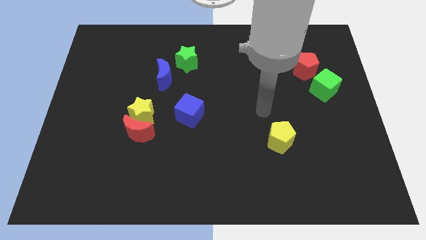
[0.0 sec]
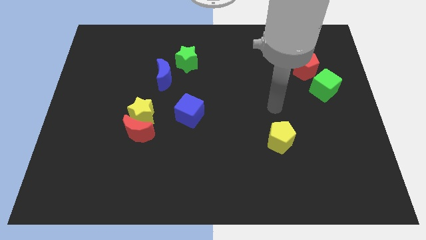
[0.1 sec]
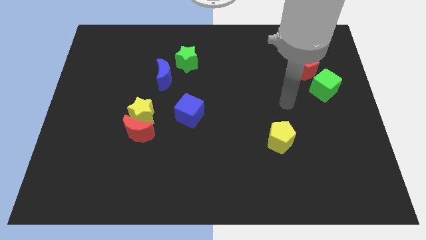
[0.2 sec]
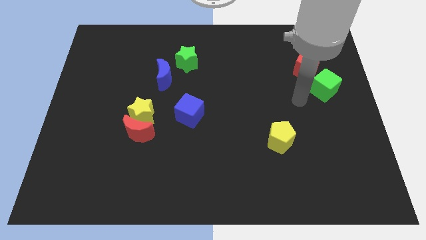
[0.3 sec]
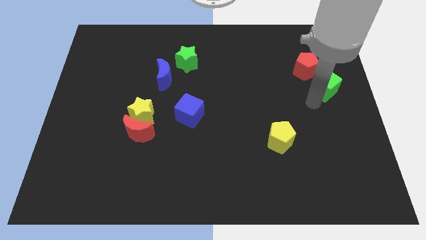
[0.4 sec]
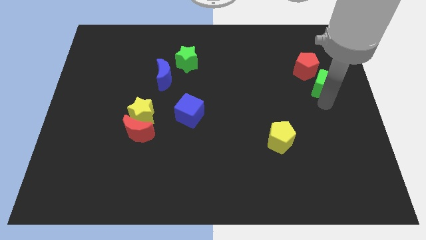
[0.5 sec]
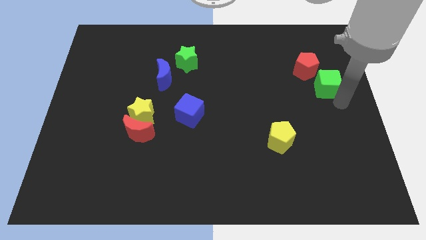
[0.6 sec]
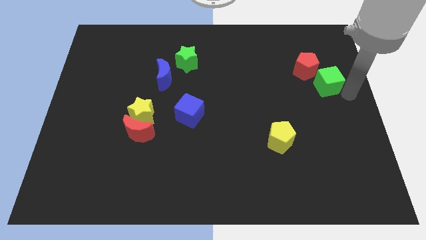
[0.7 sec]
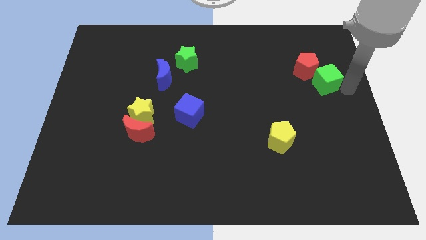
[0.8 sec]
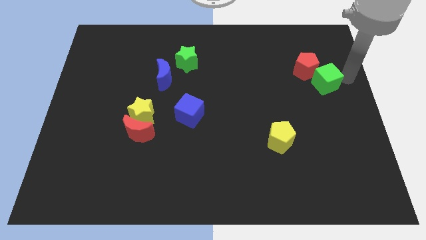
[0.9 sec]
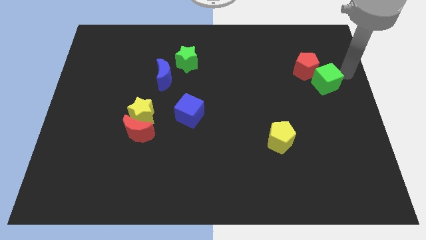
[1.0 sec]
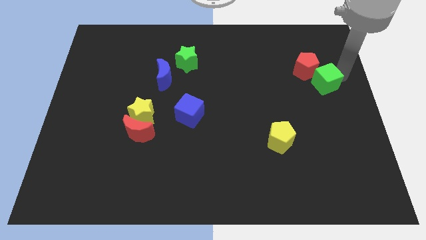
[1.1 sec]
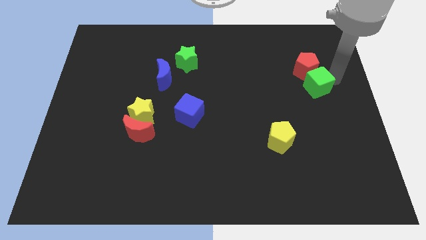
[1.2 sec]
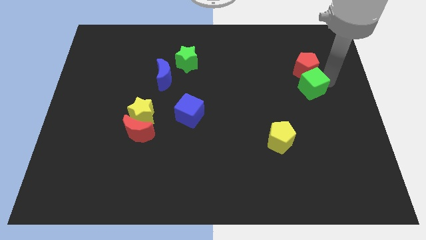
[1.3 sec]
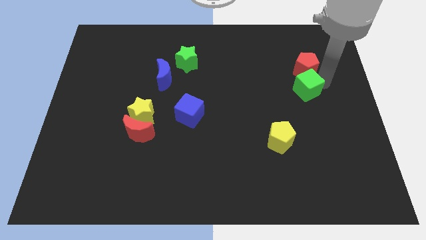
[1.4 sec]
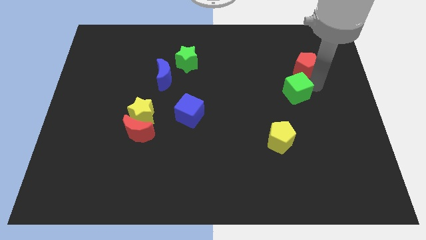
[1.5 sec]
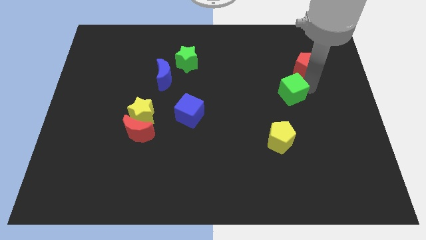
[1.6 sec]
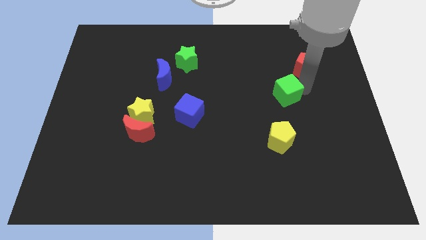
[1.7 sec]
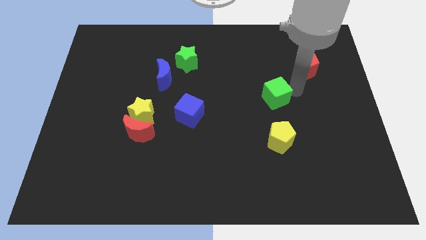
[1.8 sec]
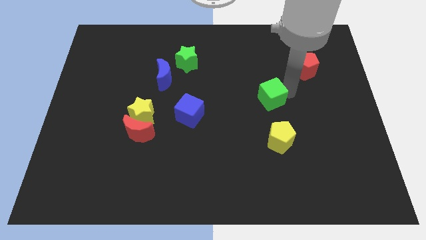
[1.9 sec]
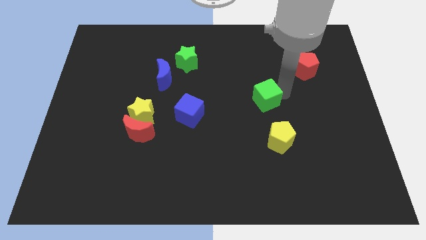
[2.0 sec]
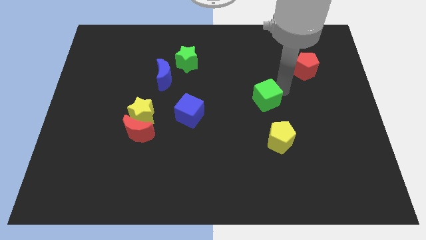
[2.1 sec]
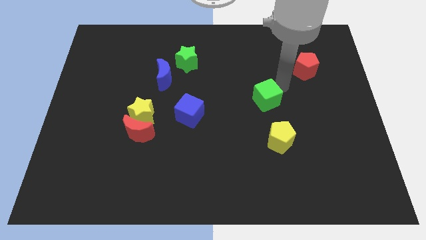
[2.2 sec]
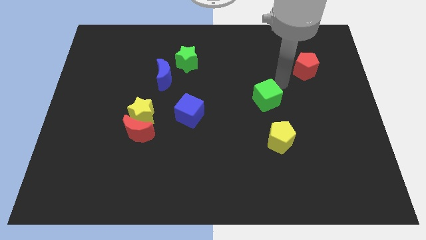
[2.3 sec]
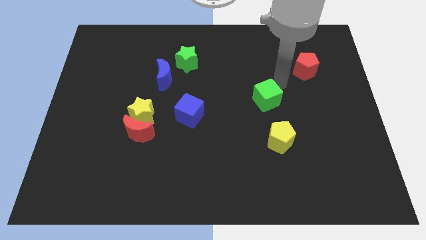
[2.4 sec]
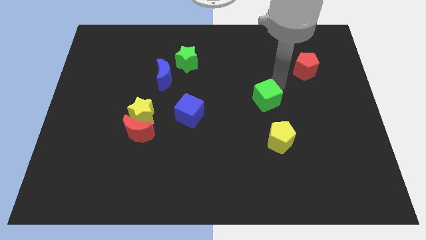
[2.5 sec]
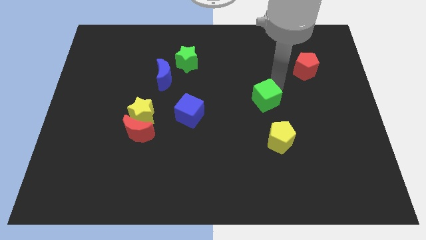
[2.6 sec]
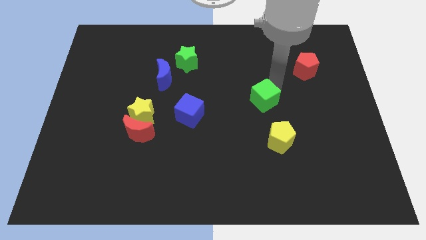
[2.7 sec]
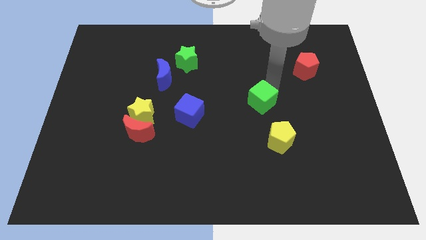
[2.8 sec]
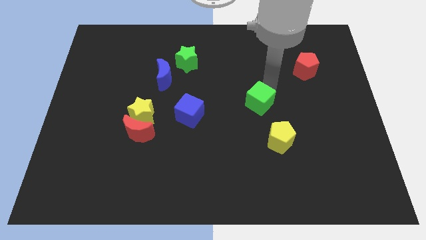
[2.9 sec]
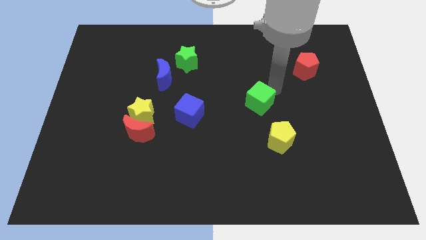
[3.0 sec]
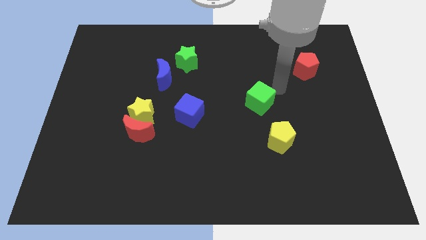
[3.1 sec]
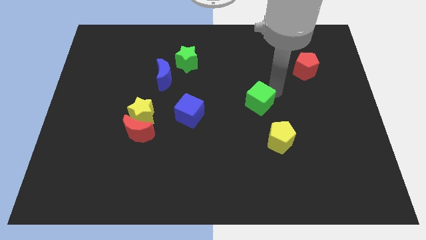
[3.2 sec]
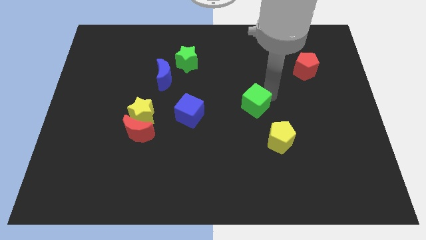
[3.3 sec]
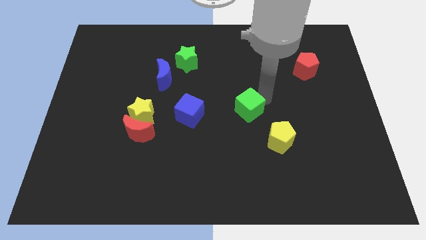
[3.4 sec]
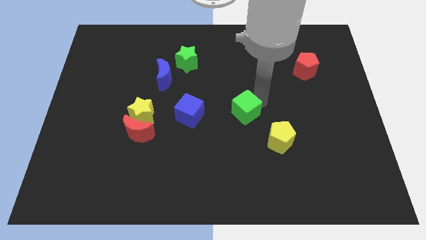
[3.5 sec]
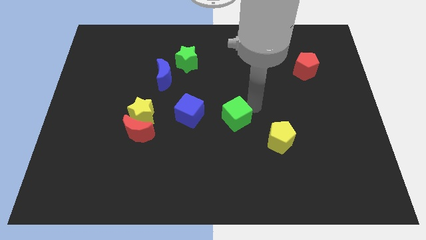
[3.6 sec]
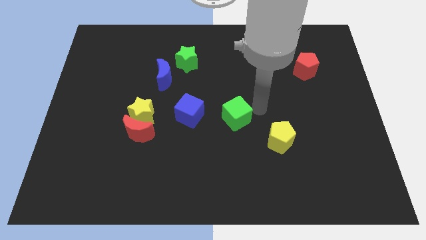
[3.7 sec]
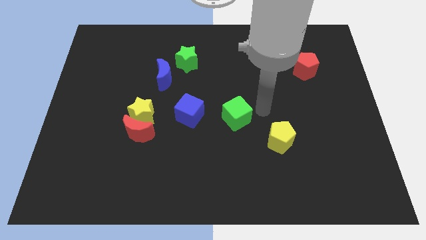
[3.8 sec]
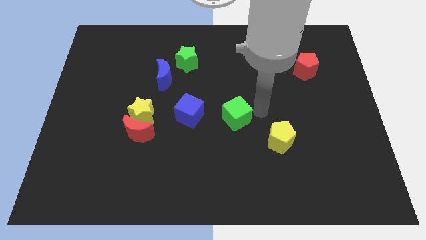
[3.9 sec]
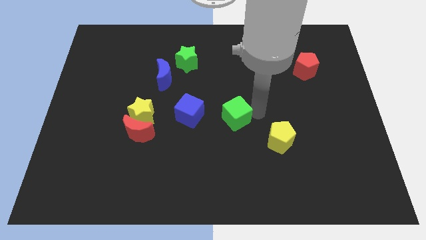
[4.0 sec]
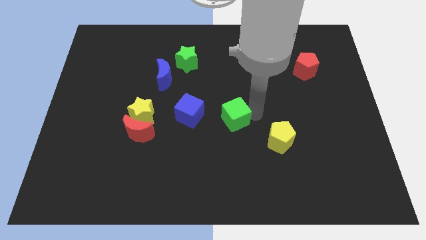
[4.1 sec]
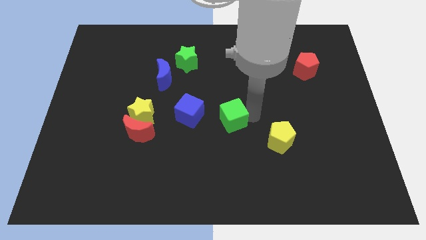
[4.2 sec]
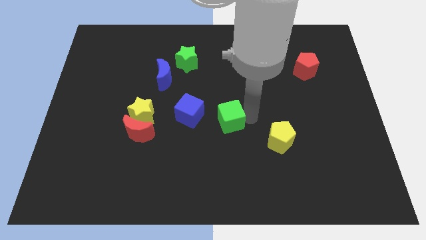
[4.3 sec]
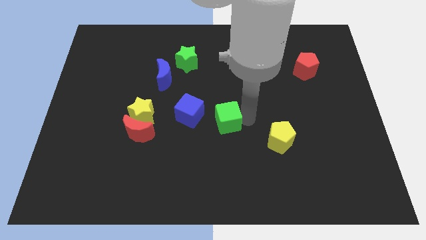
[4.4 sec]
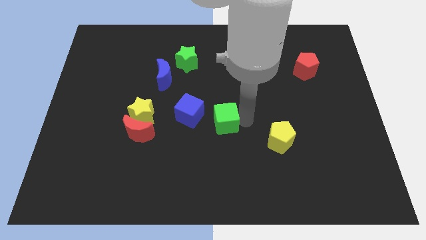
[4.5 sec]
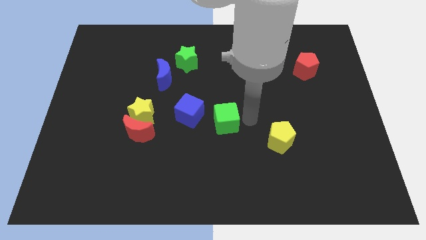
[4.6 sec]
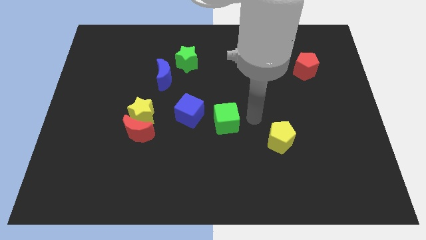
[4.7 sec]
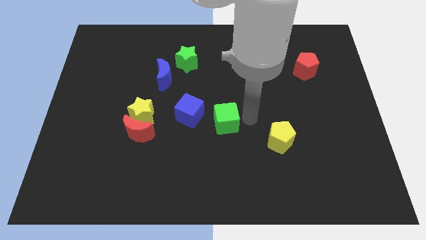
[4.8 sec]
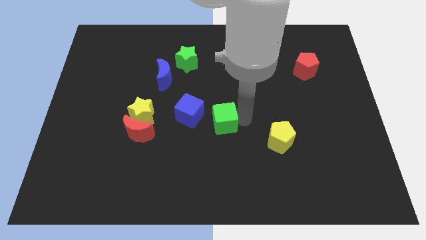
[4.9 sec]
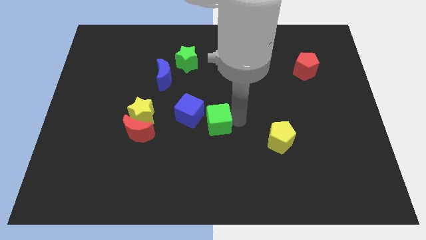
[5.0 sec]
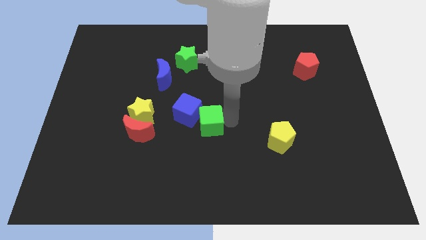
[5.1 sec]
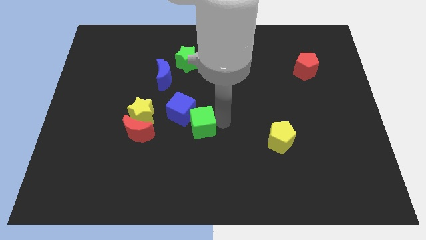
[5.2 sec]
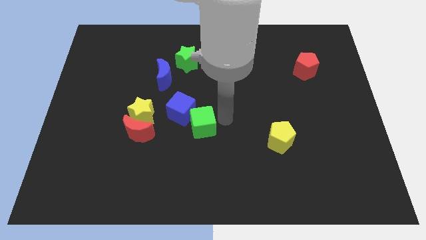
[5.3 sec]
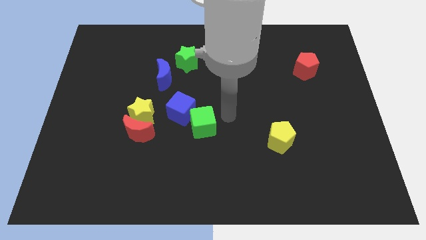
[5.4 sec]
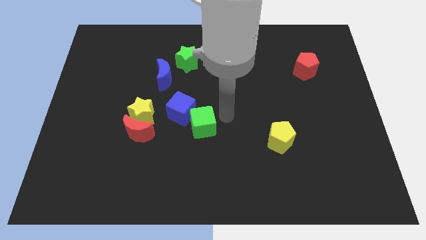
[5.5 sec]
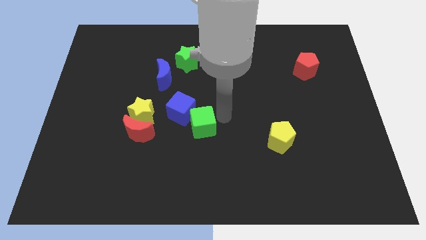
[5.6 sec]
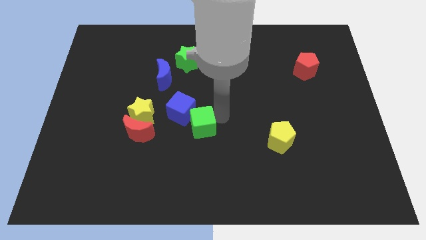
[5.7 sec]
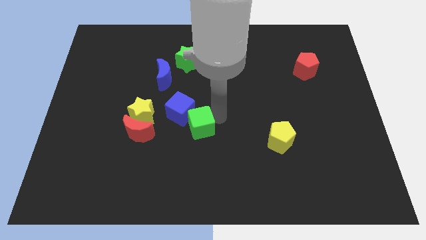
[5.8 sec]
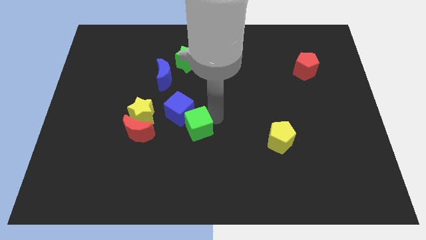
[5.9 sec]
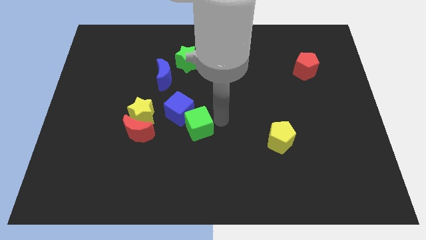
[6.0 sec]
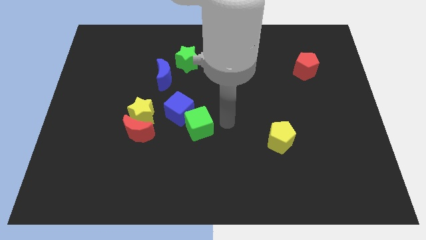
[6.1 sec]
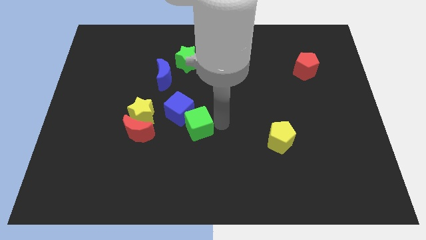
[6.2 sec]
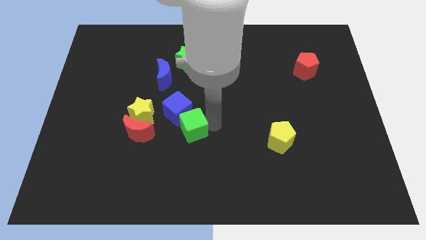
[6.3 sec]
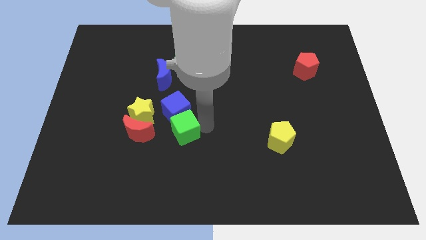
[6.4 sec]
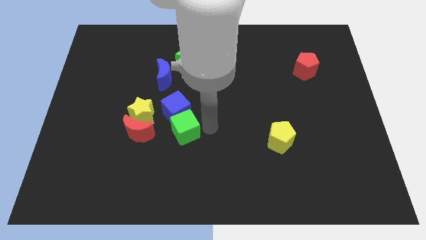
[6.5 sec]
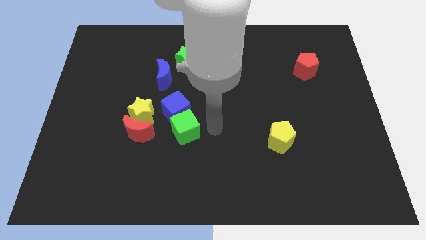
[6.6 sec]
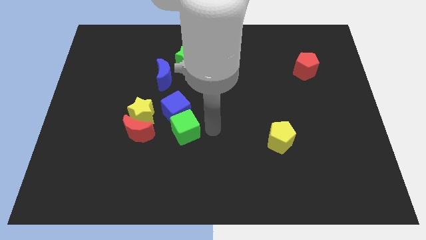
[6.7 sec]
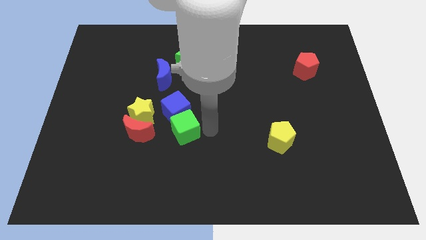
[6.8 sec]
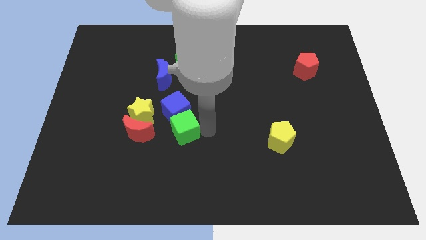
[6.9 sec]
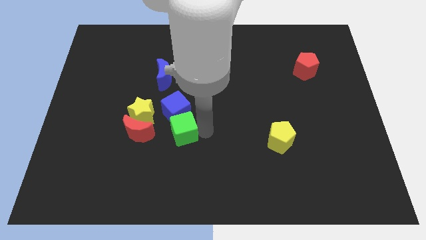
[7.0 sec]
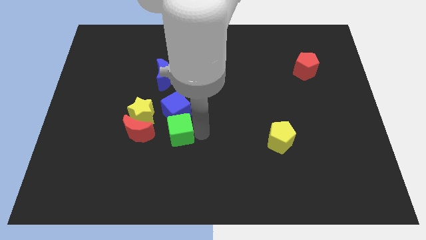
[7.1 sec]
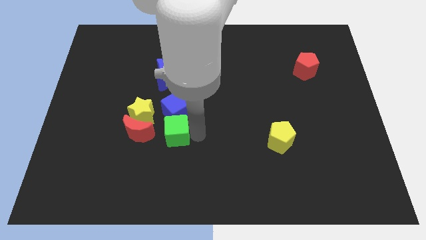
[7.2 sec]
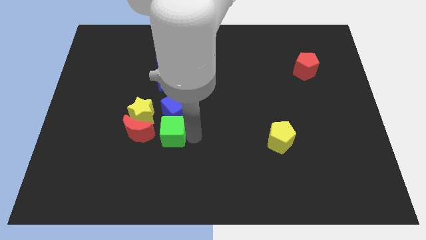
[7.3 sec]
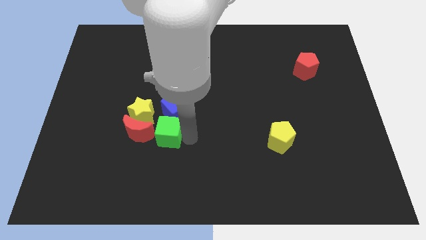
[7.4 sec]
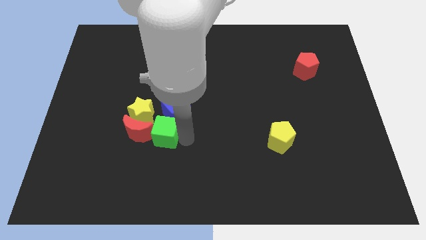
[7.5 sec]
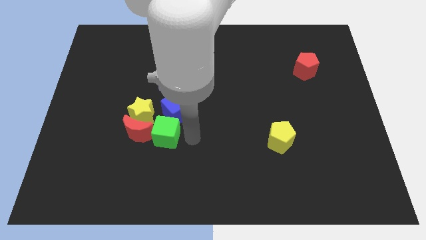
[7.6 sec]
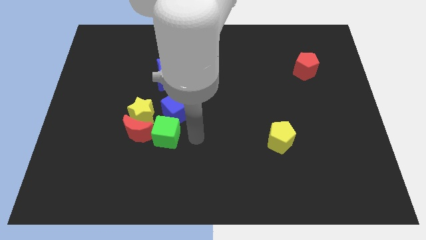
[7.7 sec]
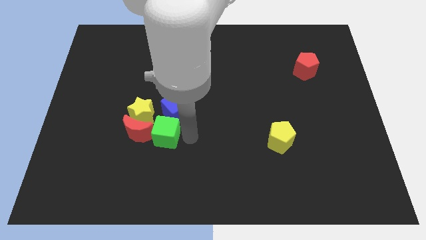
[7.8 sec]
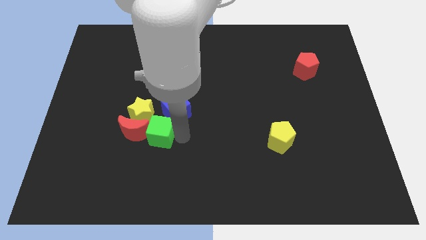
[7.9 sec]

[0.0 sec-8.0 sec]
put the green cube next to the red moon
